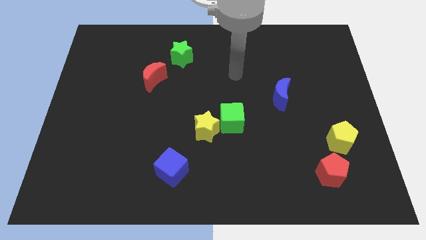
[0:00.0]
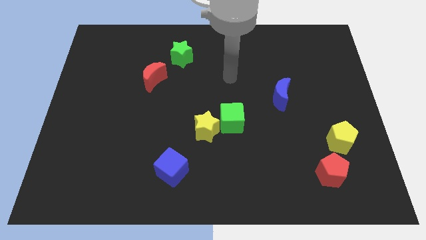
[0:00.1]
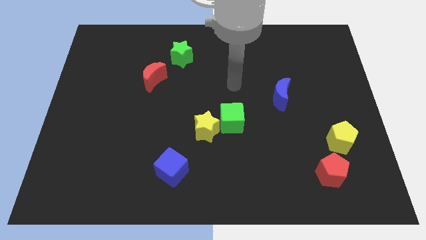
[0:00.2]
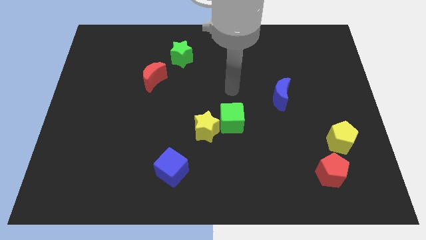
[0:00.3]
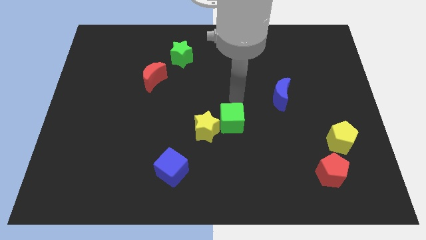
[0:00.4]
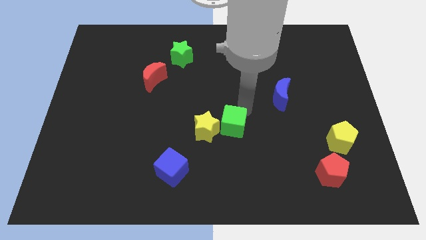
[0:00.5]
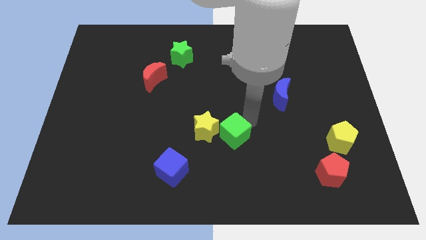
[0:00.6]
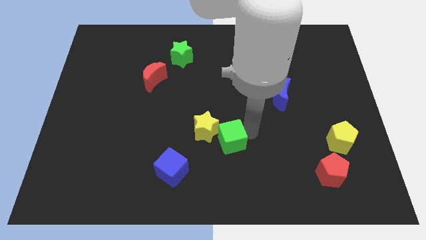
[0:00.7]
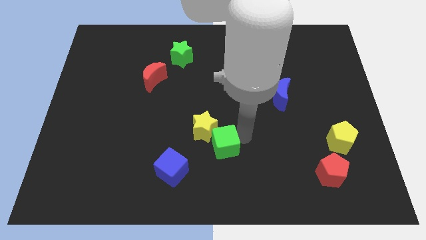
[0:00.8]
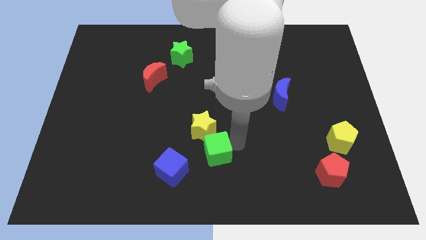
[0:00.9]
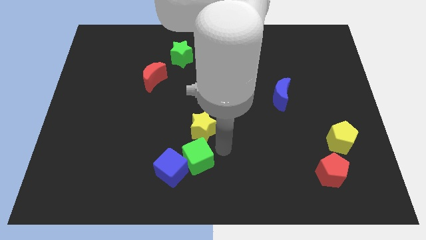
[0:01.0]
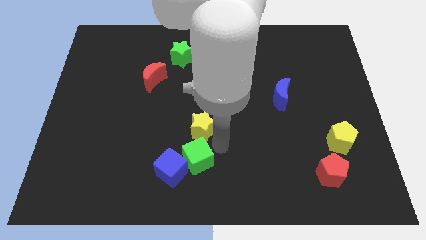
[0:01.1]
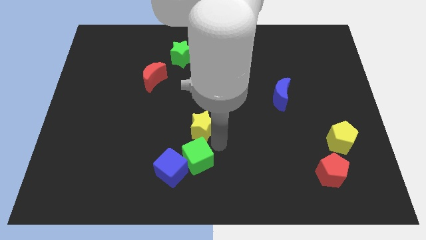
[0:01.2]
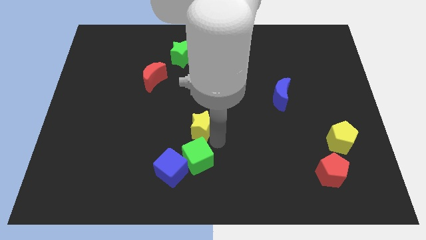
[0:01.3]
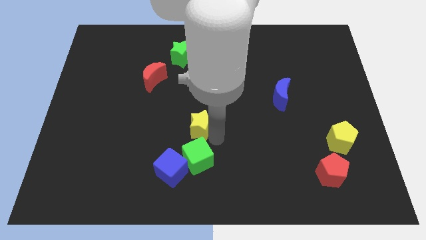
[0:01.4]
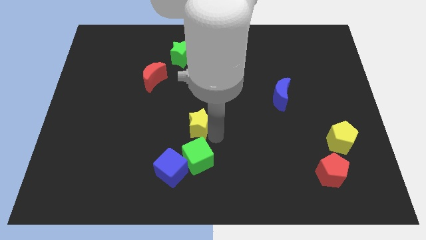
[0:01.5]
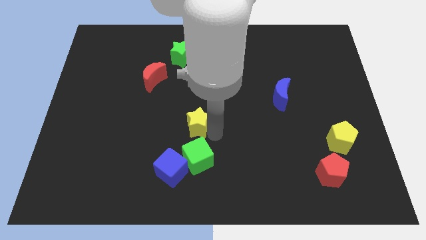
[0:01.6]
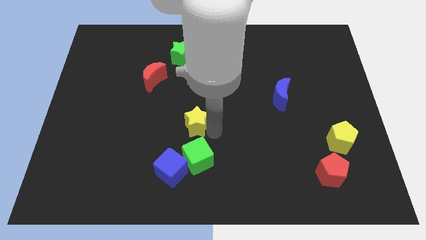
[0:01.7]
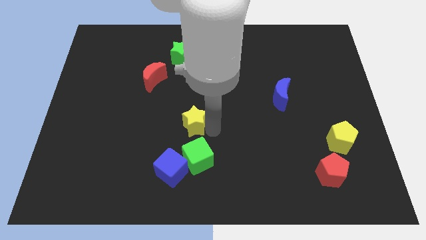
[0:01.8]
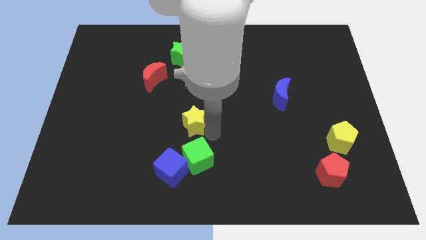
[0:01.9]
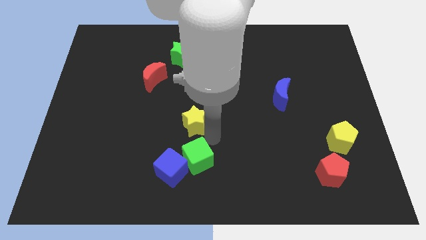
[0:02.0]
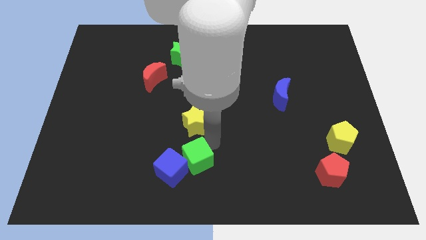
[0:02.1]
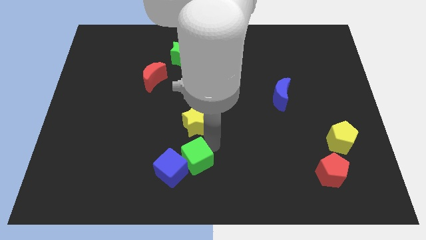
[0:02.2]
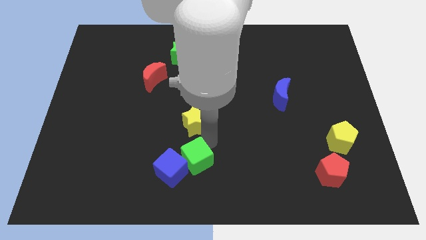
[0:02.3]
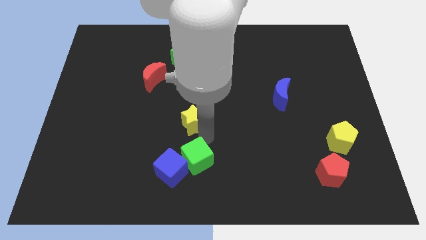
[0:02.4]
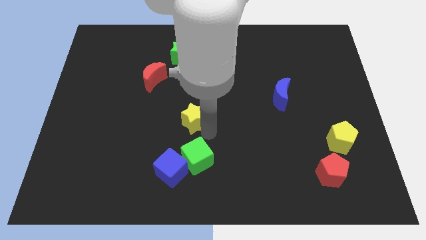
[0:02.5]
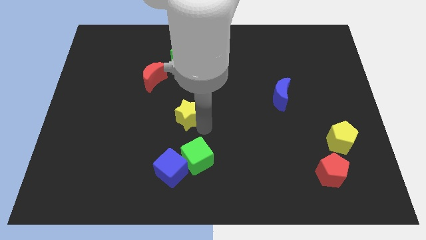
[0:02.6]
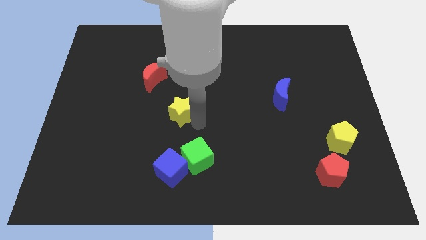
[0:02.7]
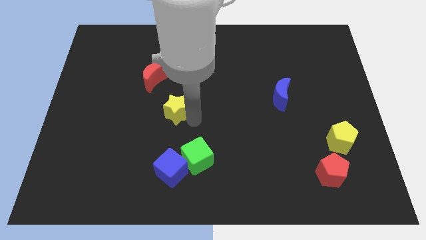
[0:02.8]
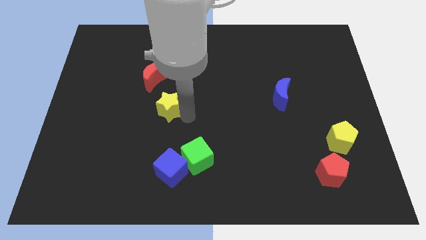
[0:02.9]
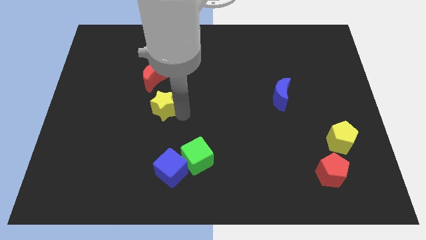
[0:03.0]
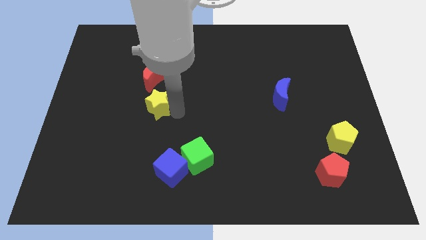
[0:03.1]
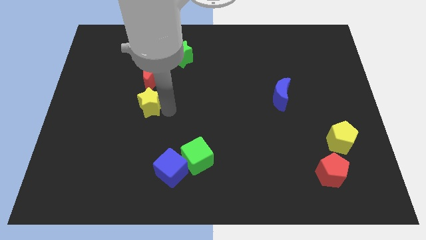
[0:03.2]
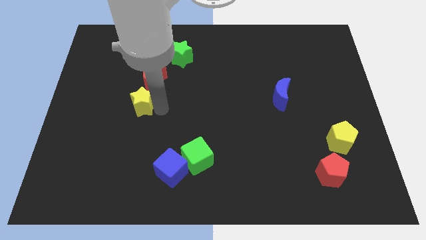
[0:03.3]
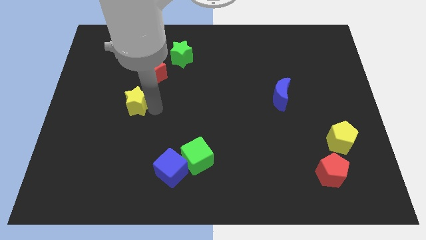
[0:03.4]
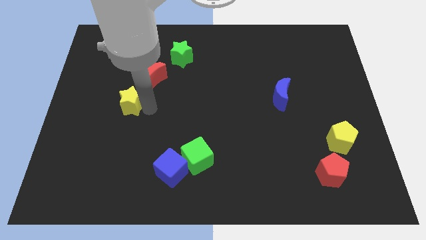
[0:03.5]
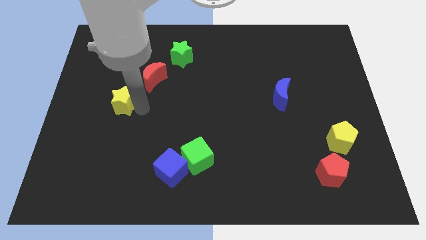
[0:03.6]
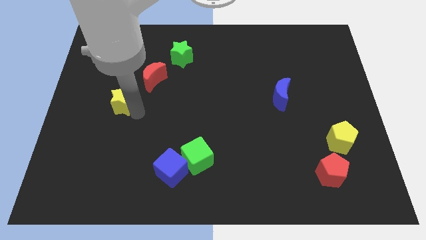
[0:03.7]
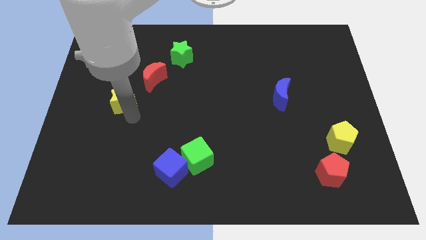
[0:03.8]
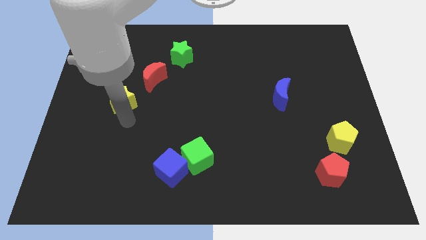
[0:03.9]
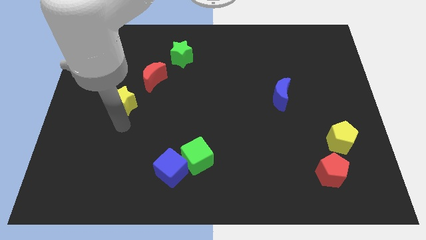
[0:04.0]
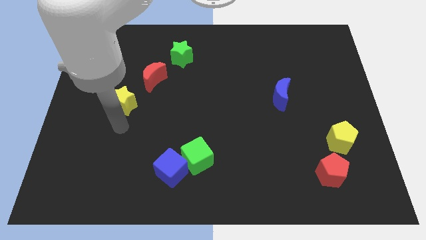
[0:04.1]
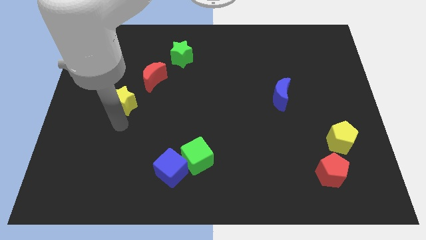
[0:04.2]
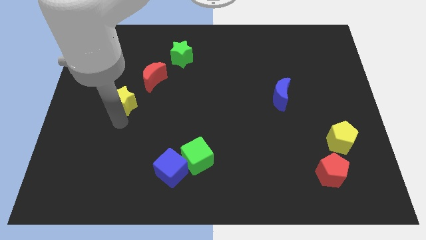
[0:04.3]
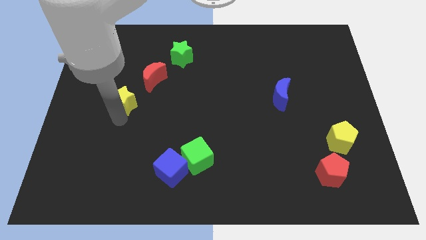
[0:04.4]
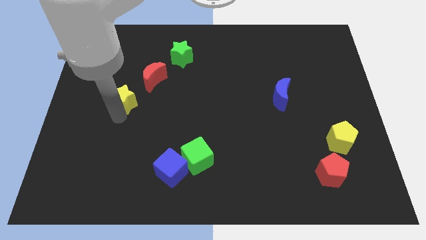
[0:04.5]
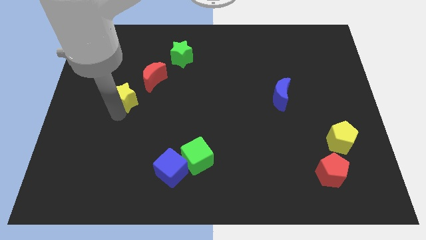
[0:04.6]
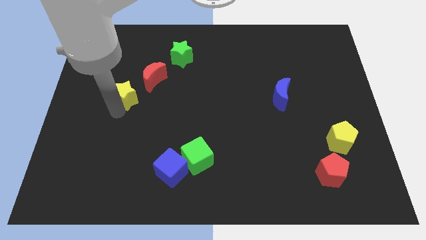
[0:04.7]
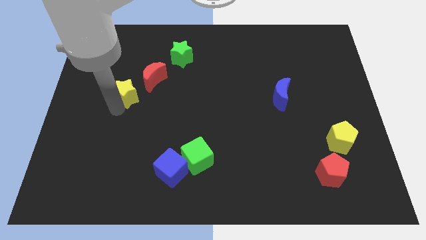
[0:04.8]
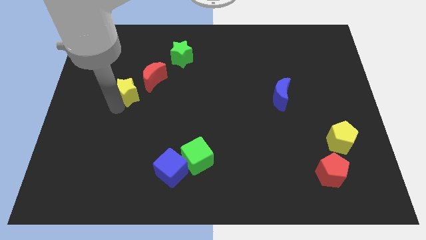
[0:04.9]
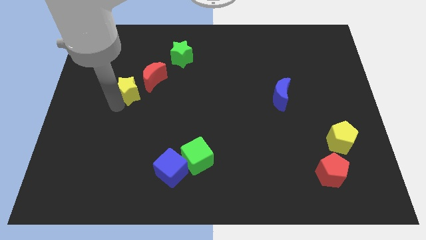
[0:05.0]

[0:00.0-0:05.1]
push the yellow star upwards and to the left diagonally

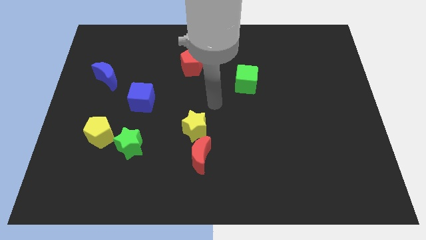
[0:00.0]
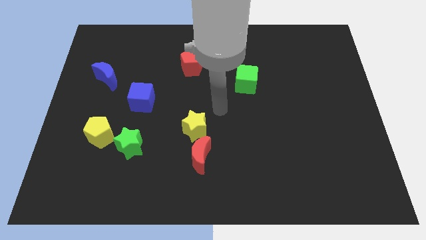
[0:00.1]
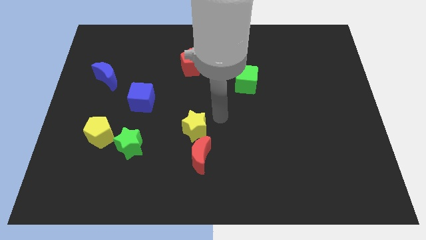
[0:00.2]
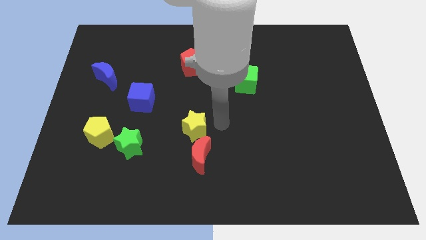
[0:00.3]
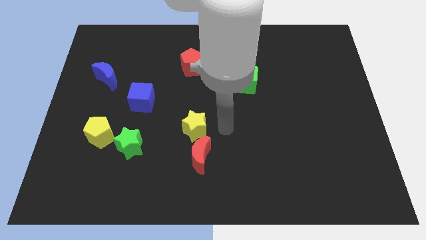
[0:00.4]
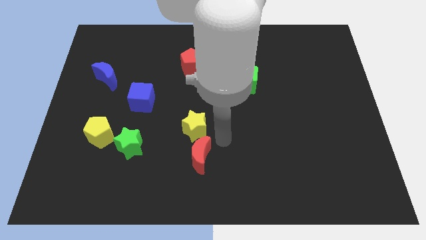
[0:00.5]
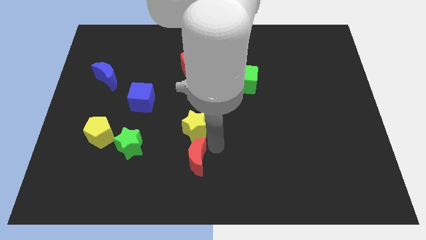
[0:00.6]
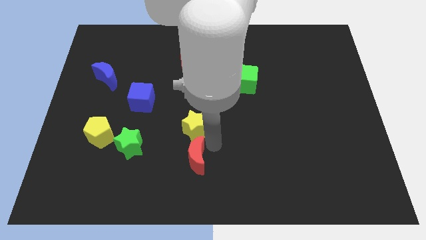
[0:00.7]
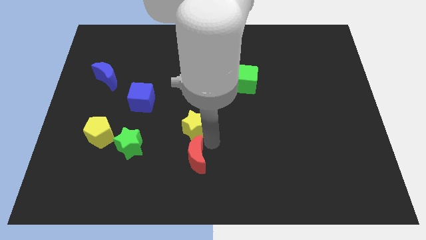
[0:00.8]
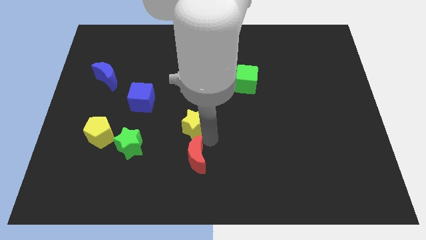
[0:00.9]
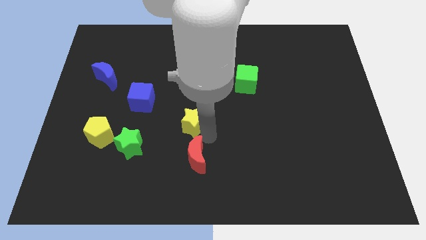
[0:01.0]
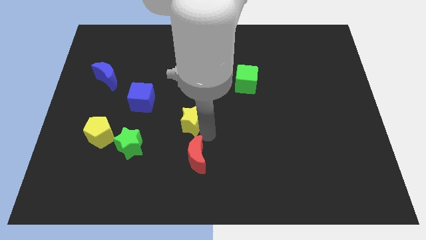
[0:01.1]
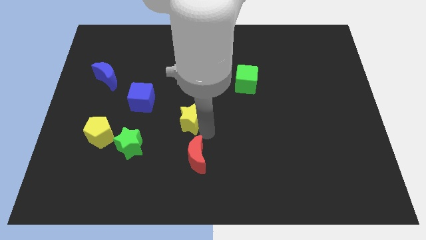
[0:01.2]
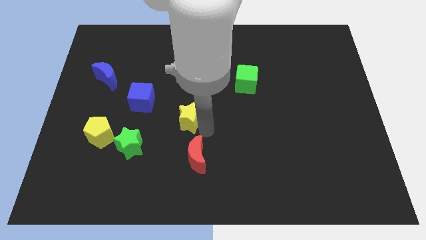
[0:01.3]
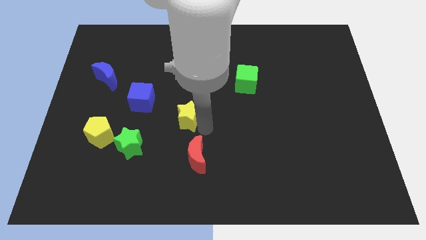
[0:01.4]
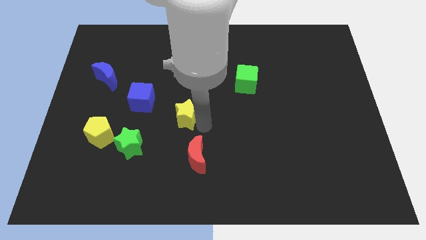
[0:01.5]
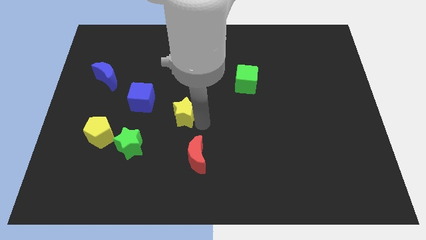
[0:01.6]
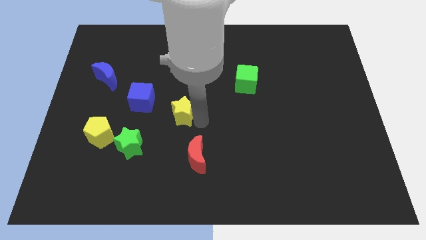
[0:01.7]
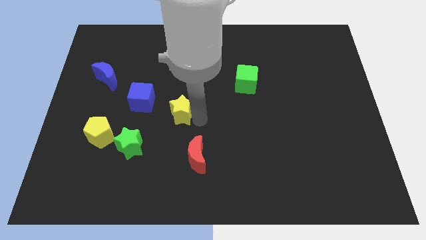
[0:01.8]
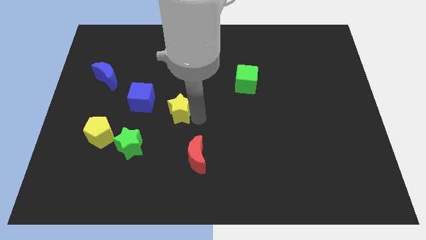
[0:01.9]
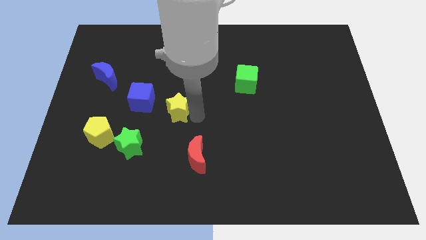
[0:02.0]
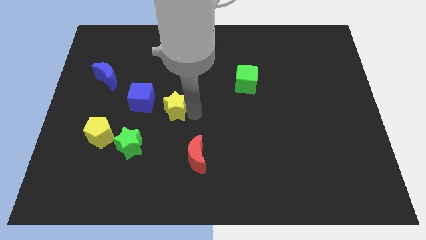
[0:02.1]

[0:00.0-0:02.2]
push the yellow star diagonally up and left a little

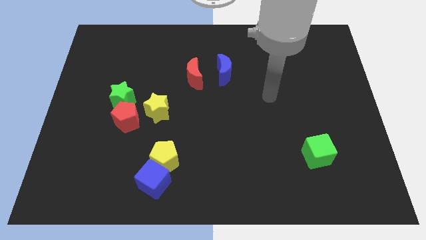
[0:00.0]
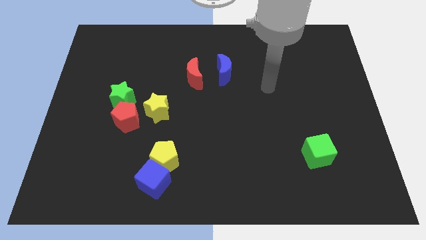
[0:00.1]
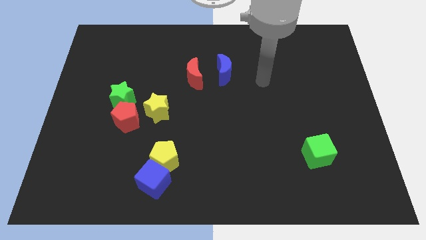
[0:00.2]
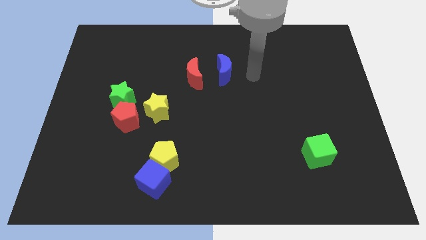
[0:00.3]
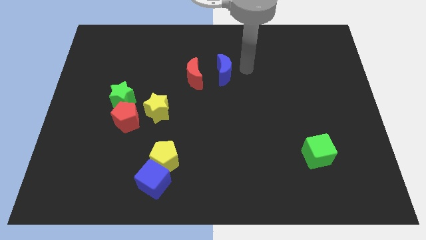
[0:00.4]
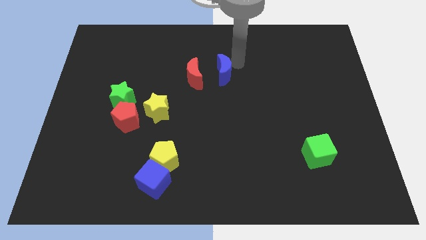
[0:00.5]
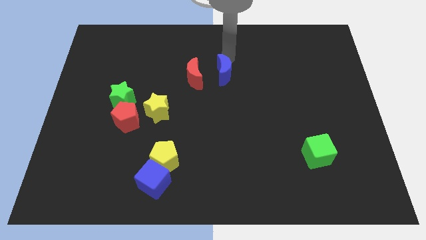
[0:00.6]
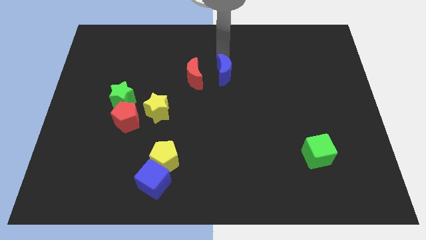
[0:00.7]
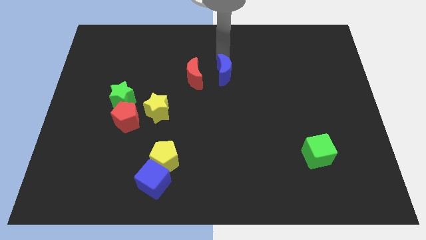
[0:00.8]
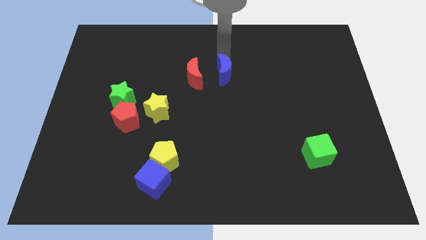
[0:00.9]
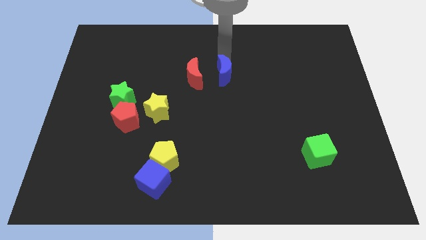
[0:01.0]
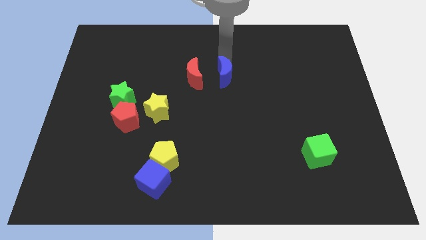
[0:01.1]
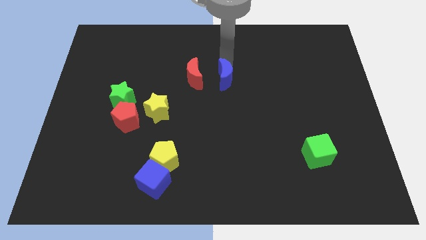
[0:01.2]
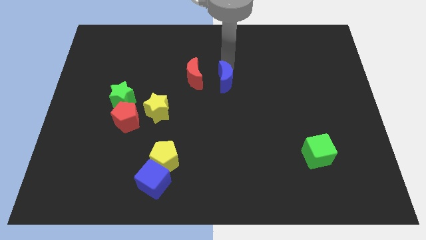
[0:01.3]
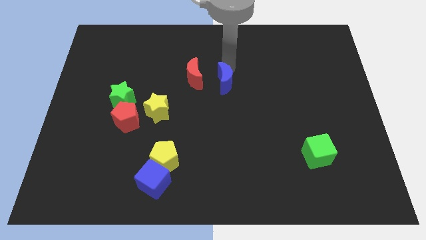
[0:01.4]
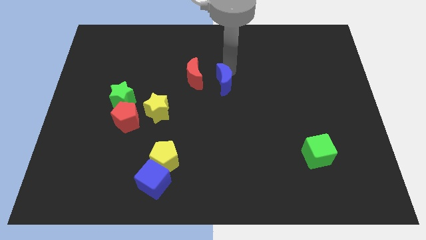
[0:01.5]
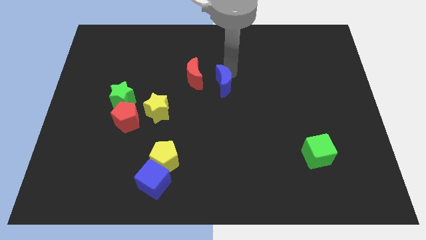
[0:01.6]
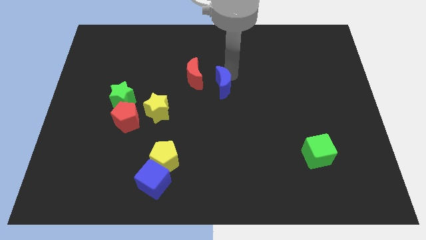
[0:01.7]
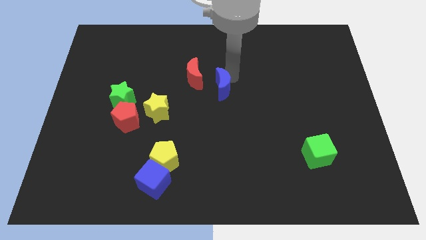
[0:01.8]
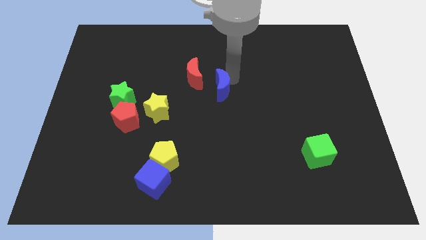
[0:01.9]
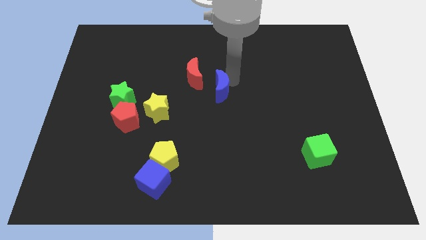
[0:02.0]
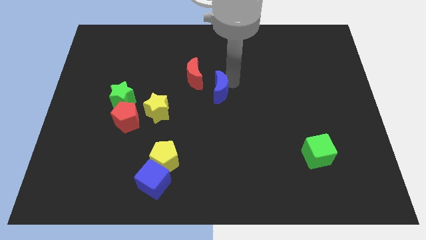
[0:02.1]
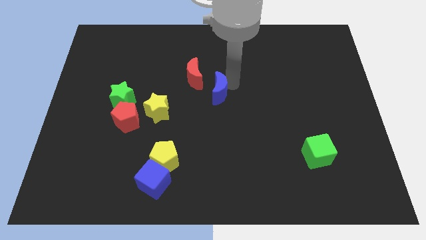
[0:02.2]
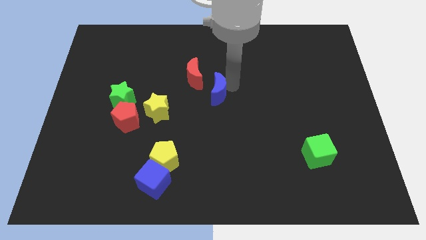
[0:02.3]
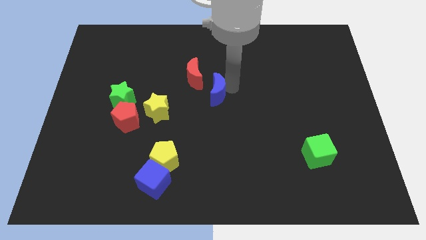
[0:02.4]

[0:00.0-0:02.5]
slightly move the blue moon downwards
